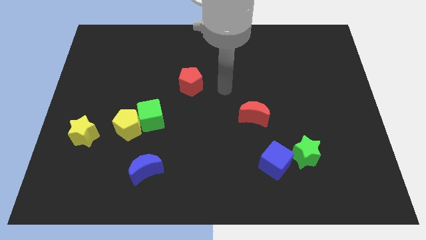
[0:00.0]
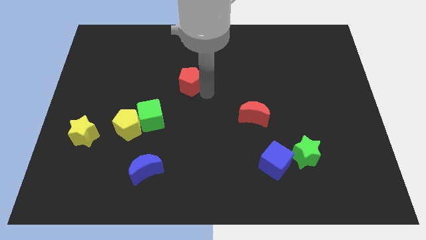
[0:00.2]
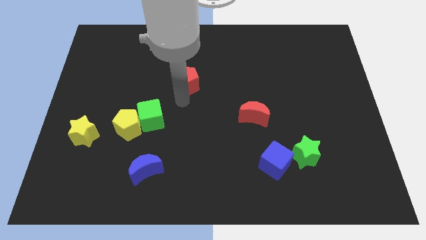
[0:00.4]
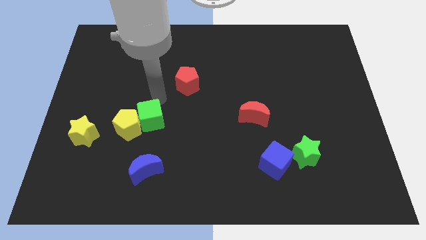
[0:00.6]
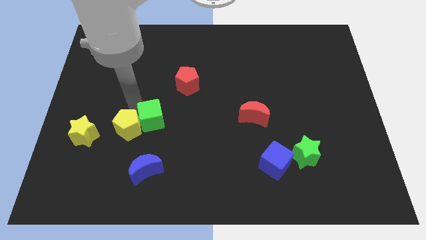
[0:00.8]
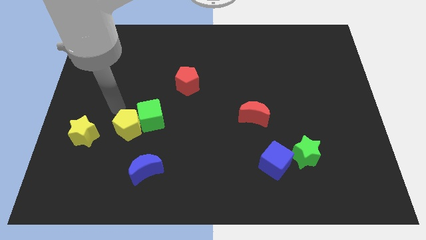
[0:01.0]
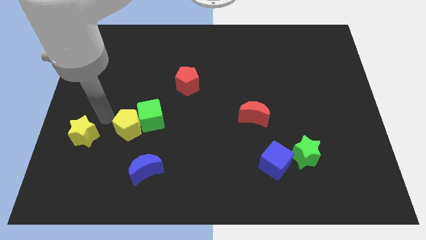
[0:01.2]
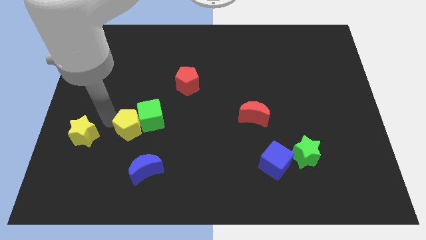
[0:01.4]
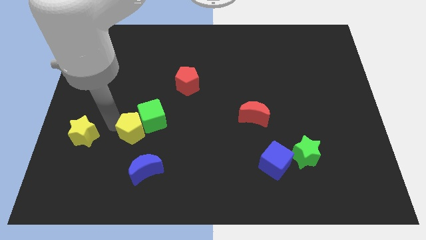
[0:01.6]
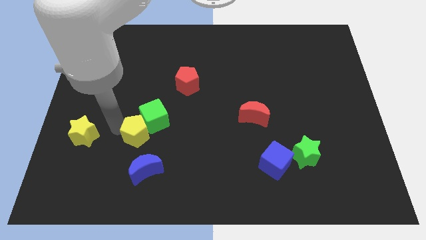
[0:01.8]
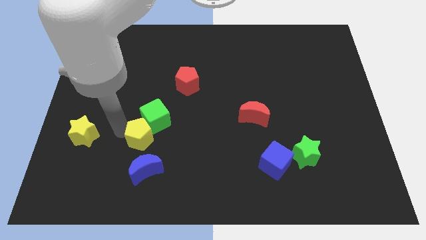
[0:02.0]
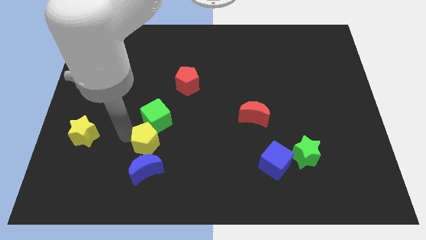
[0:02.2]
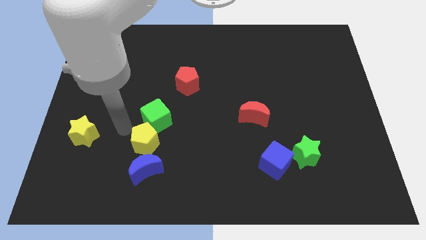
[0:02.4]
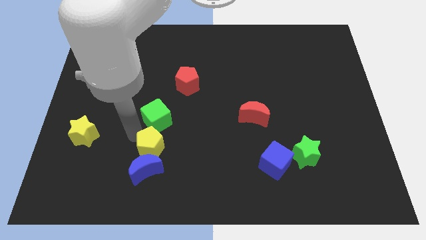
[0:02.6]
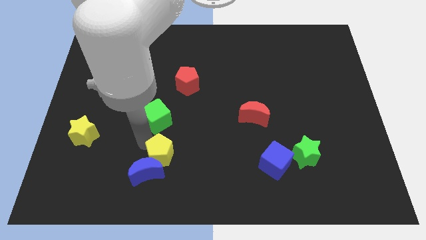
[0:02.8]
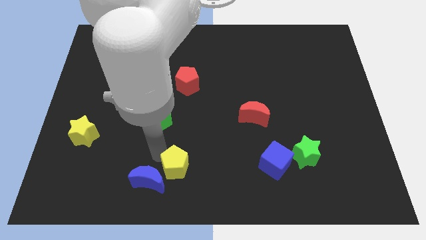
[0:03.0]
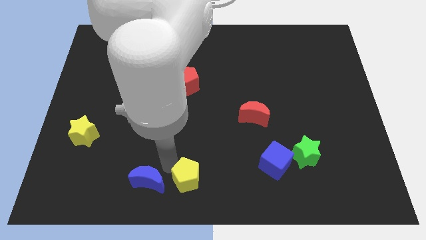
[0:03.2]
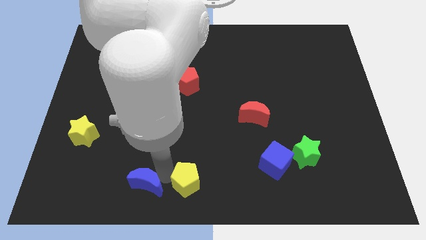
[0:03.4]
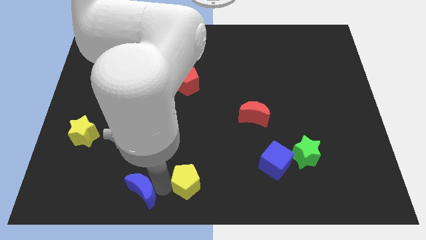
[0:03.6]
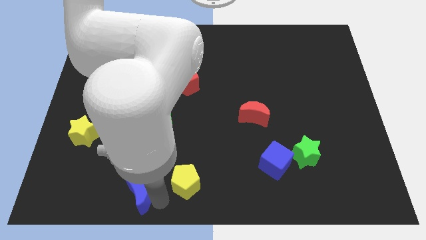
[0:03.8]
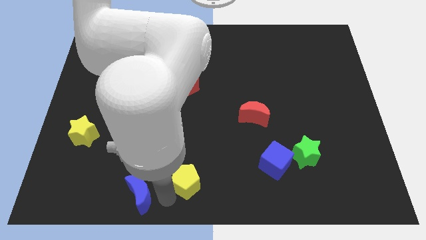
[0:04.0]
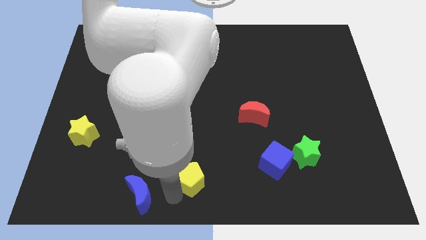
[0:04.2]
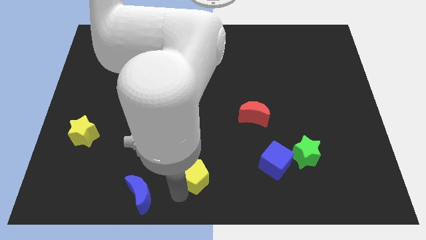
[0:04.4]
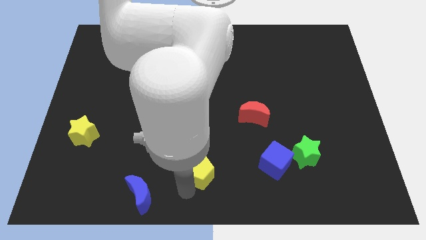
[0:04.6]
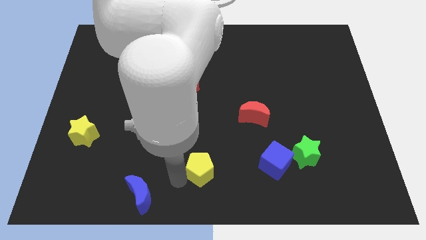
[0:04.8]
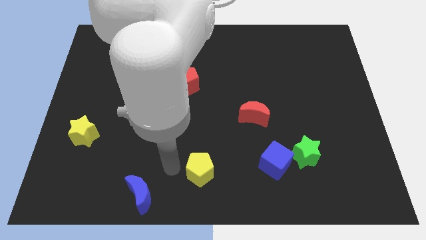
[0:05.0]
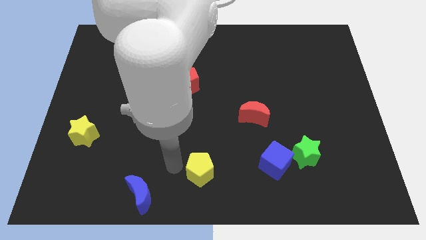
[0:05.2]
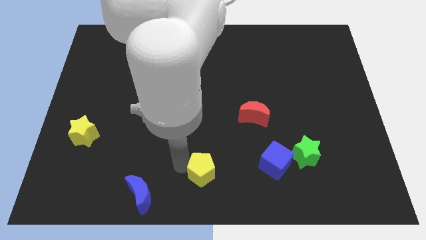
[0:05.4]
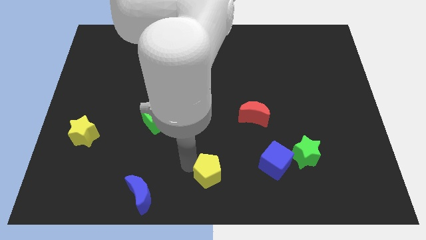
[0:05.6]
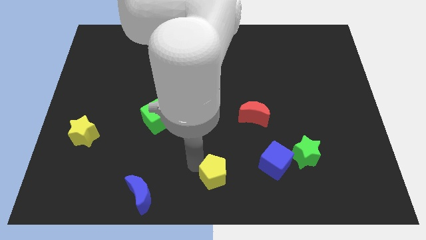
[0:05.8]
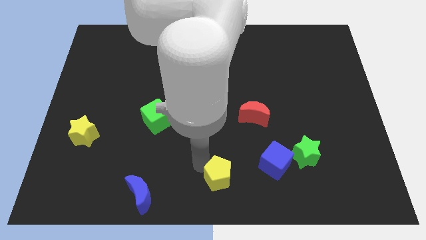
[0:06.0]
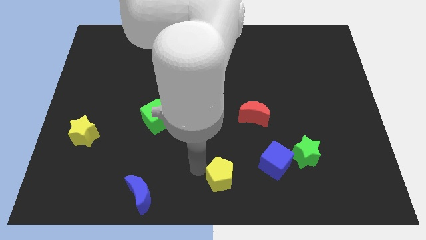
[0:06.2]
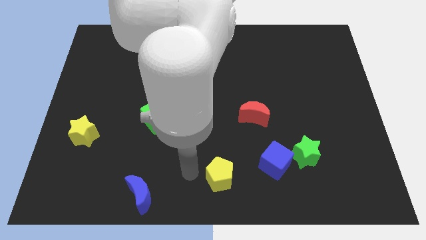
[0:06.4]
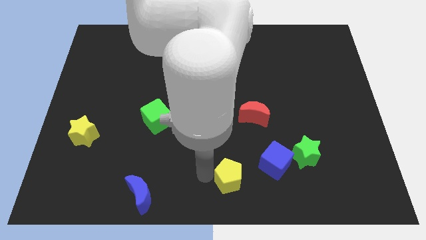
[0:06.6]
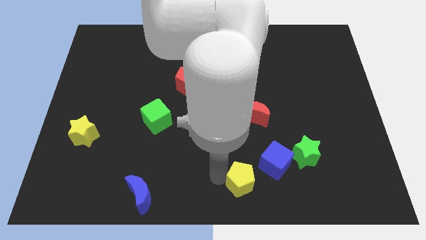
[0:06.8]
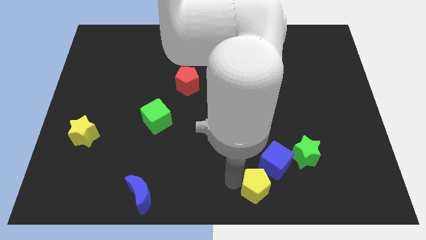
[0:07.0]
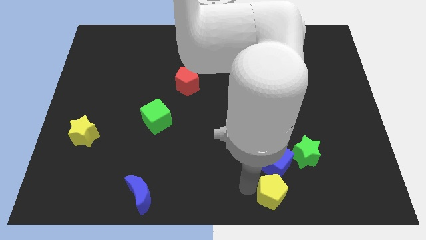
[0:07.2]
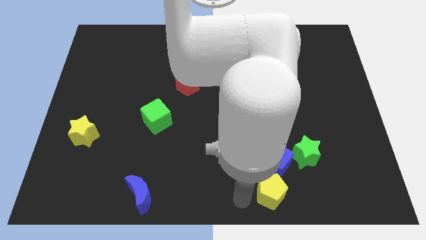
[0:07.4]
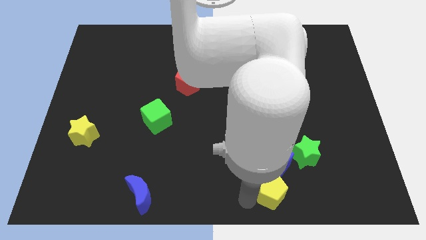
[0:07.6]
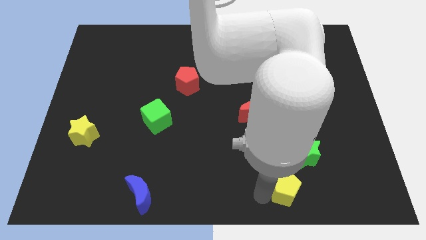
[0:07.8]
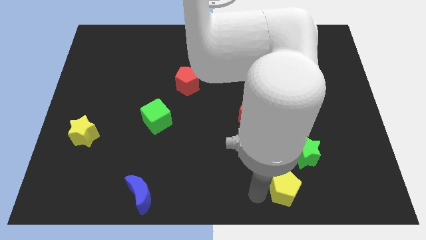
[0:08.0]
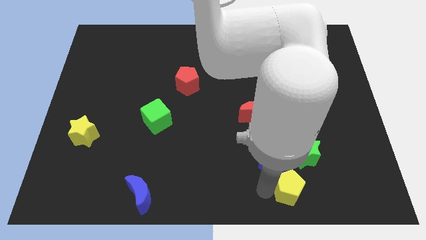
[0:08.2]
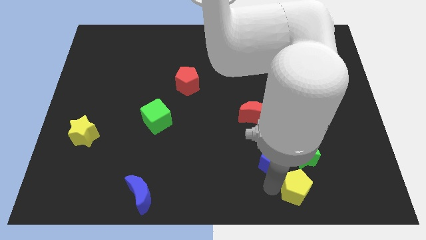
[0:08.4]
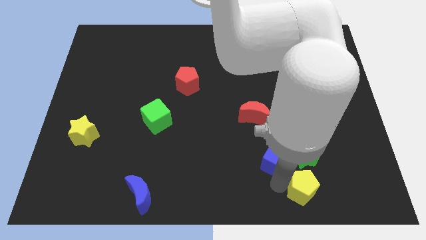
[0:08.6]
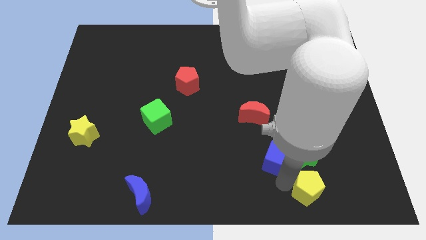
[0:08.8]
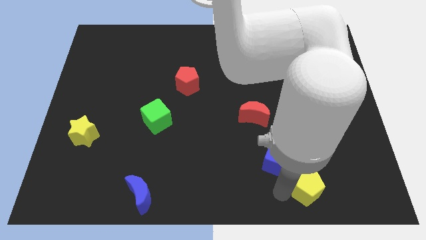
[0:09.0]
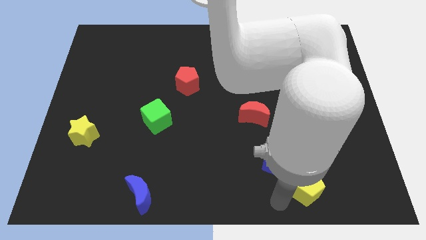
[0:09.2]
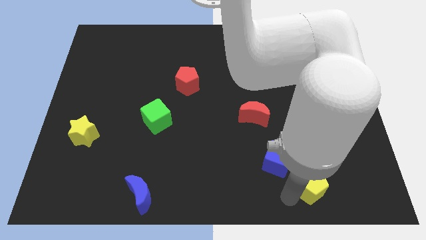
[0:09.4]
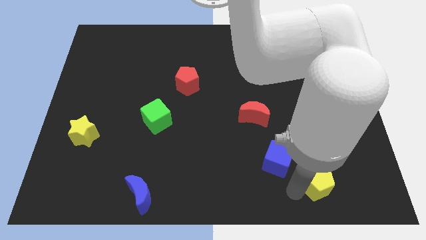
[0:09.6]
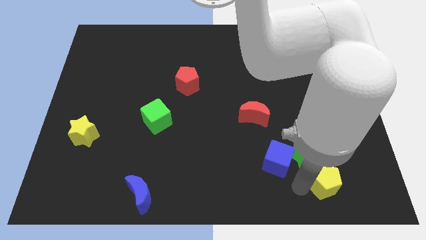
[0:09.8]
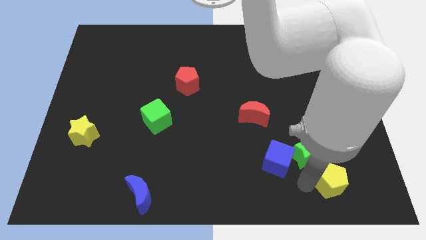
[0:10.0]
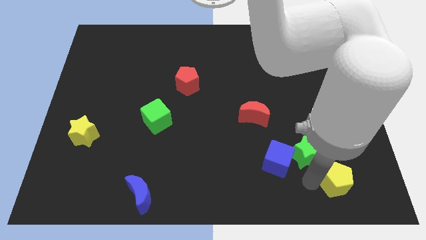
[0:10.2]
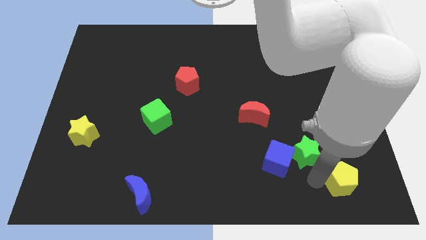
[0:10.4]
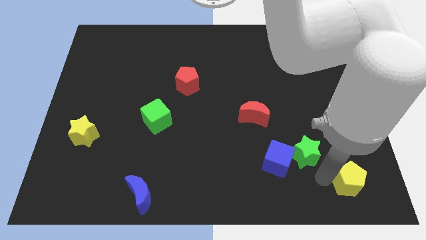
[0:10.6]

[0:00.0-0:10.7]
slide the yellow pentagon to the bottom right of the board

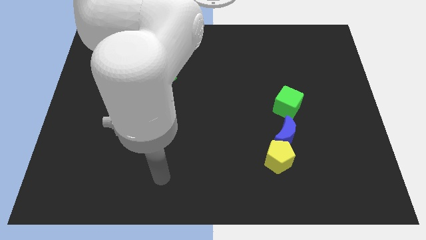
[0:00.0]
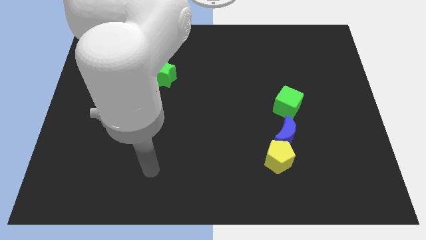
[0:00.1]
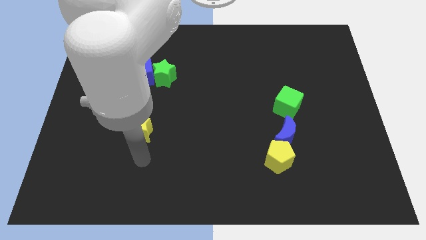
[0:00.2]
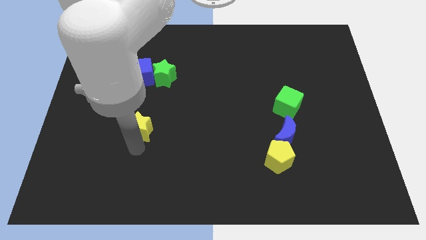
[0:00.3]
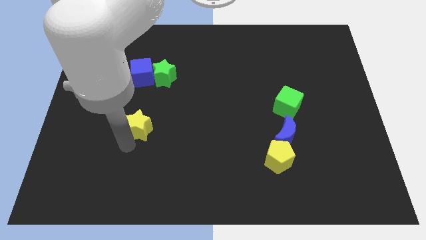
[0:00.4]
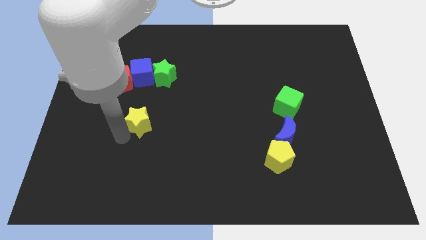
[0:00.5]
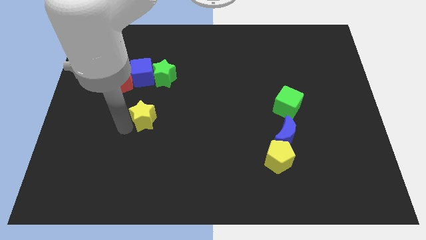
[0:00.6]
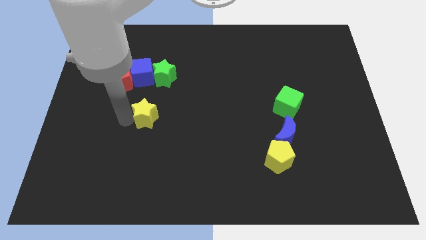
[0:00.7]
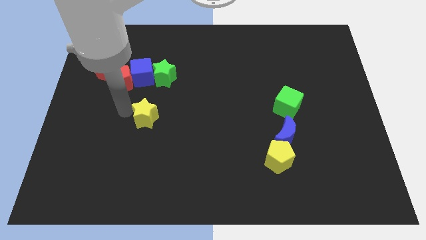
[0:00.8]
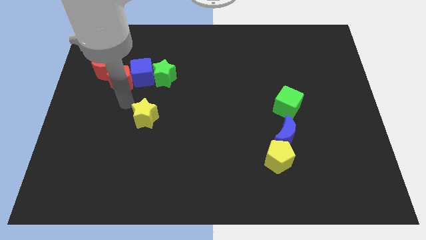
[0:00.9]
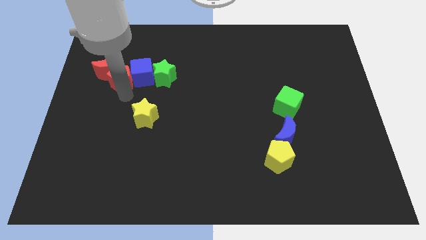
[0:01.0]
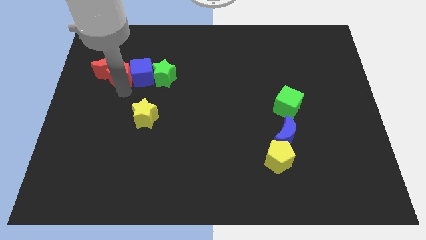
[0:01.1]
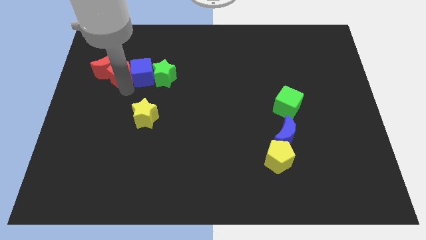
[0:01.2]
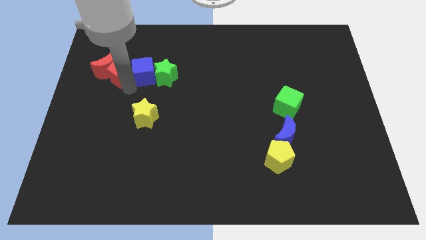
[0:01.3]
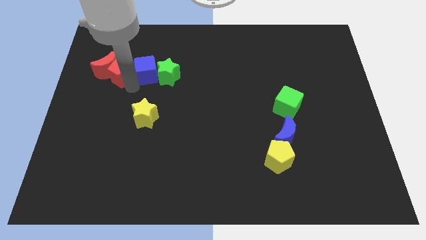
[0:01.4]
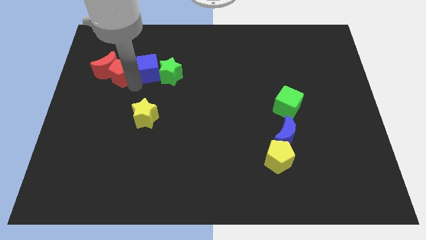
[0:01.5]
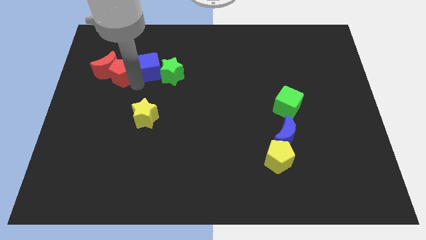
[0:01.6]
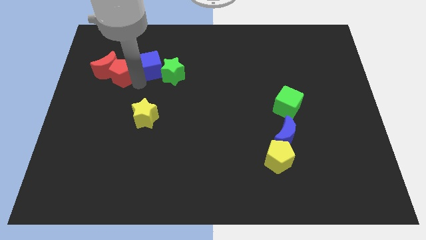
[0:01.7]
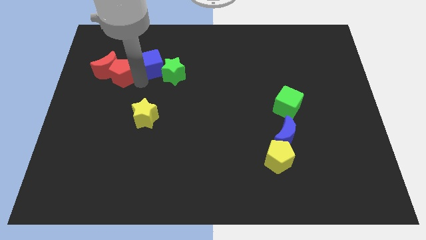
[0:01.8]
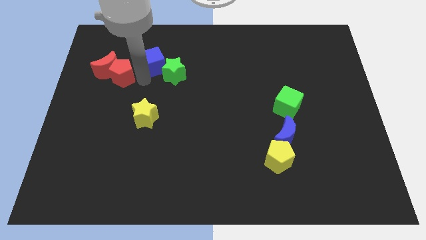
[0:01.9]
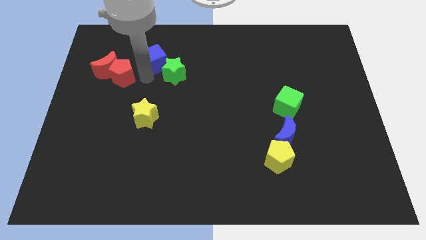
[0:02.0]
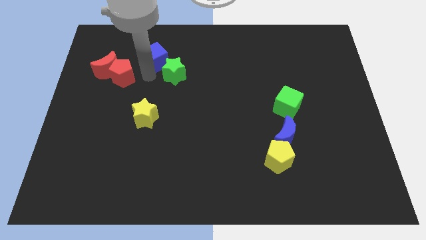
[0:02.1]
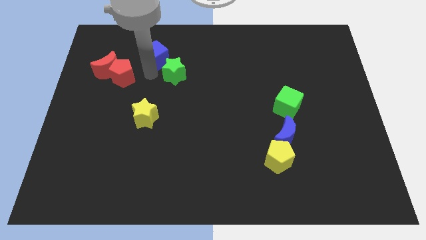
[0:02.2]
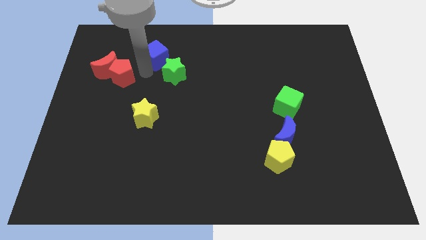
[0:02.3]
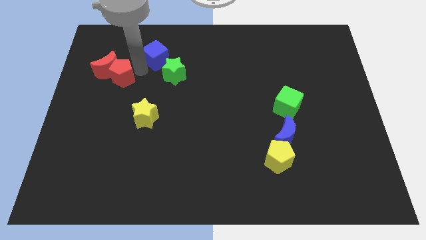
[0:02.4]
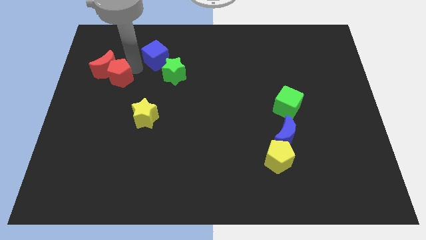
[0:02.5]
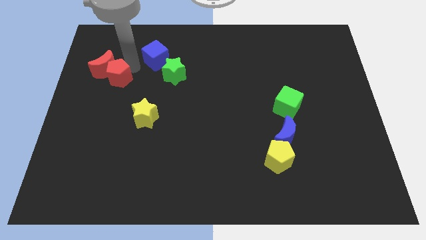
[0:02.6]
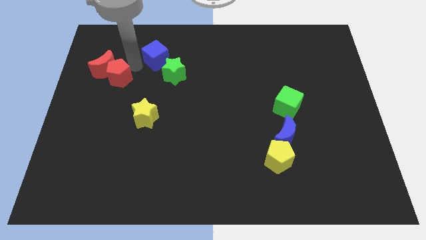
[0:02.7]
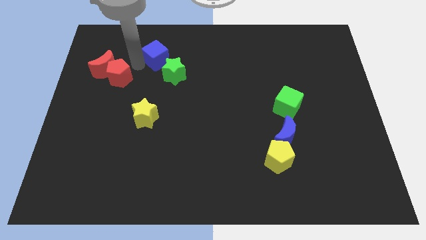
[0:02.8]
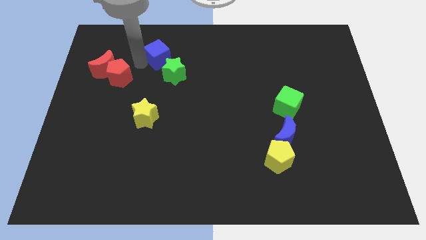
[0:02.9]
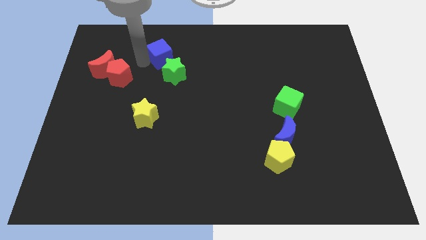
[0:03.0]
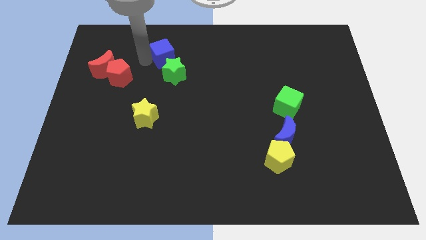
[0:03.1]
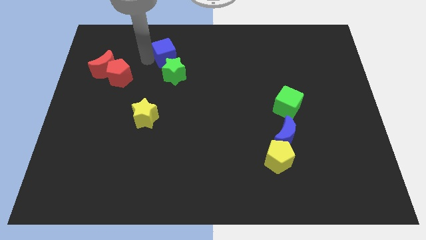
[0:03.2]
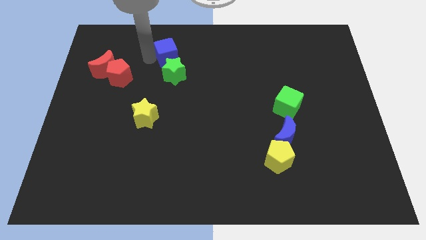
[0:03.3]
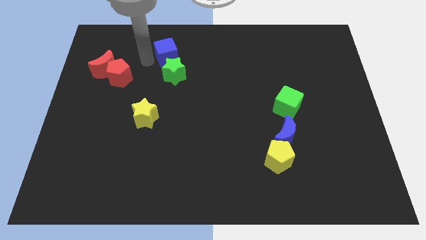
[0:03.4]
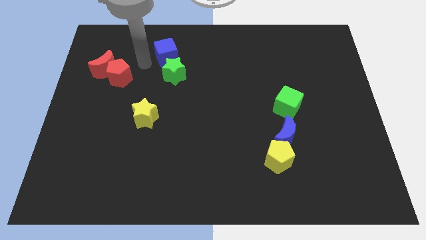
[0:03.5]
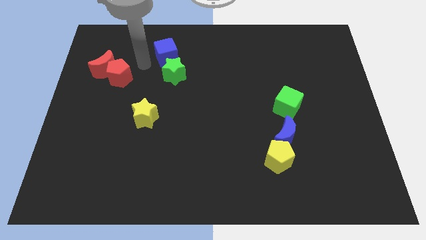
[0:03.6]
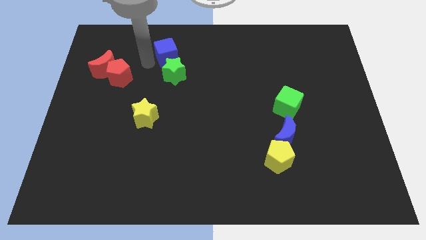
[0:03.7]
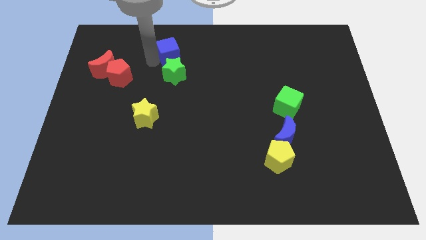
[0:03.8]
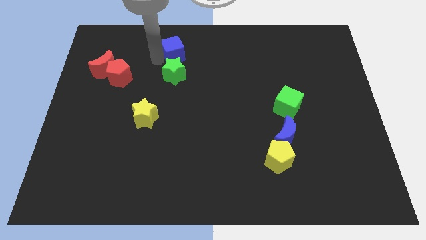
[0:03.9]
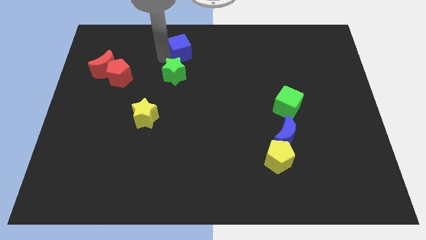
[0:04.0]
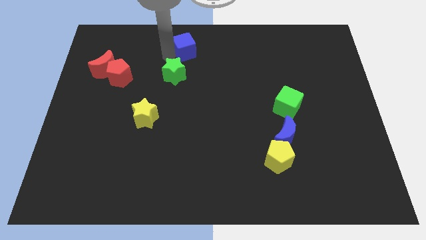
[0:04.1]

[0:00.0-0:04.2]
move the blue cube to the top
